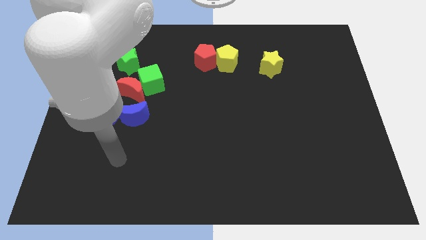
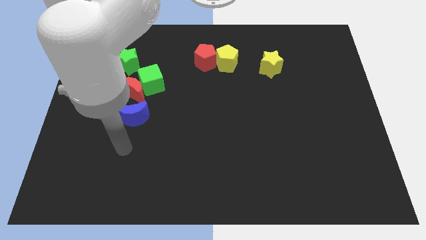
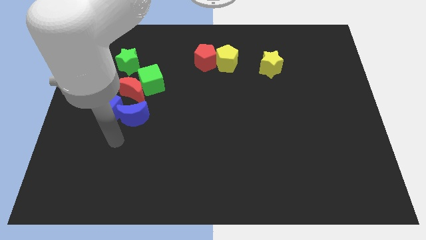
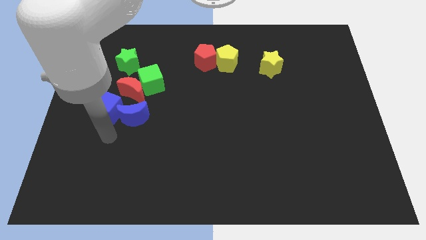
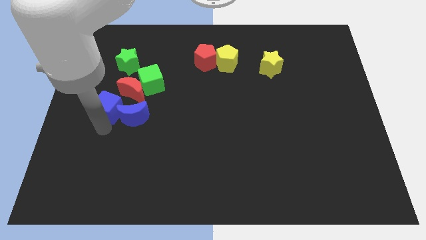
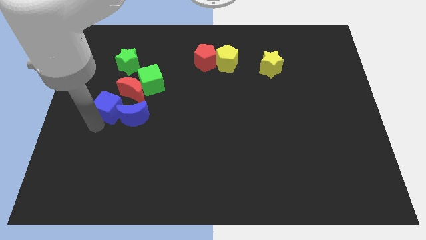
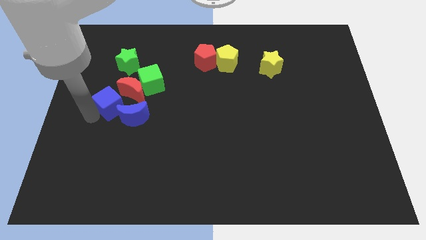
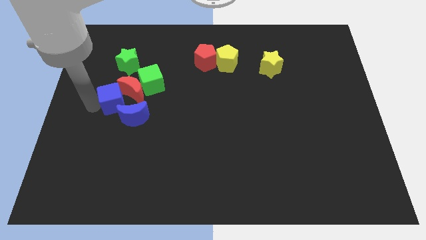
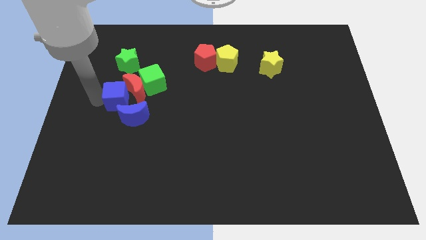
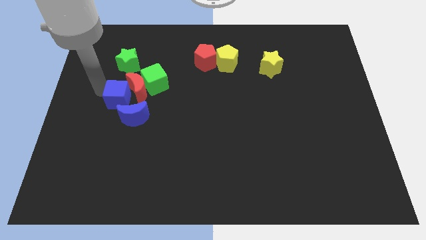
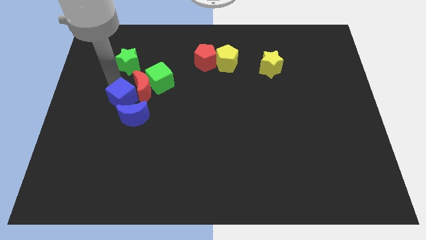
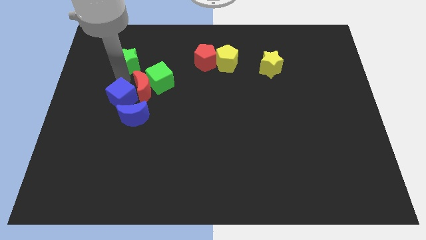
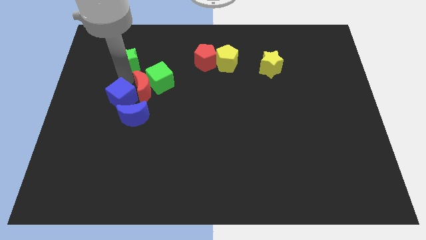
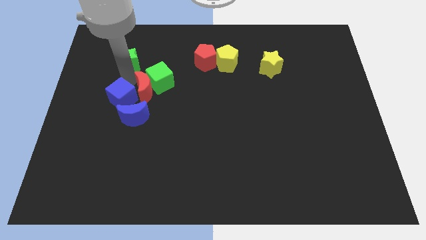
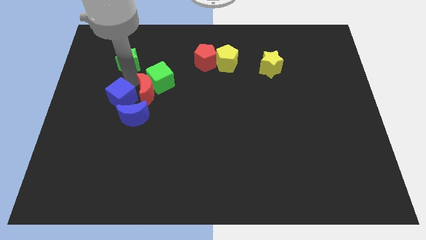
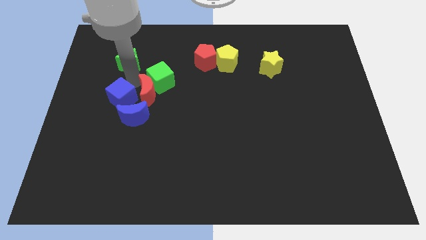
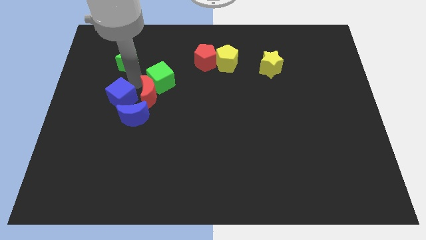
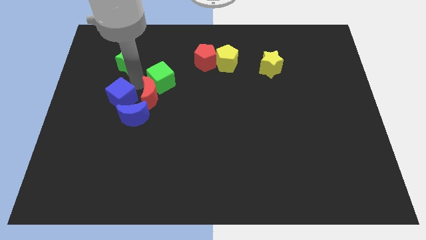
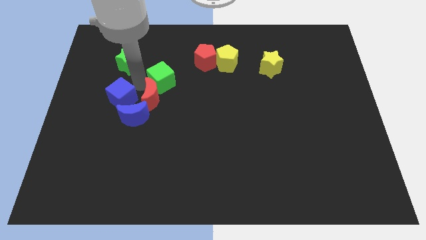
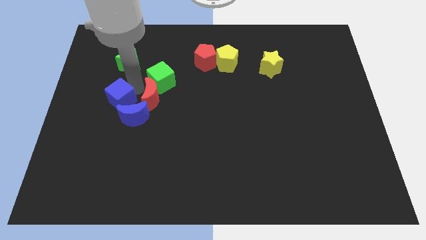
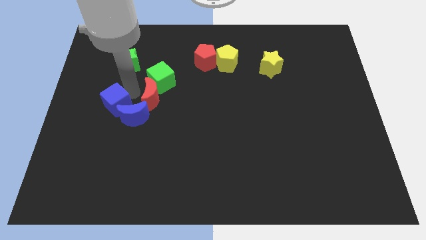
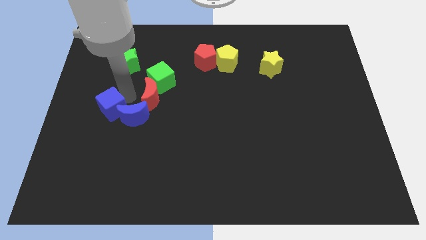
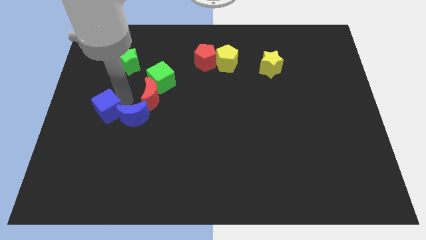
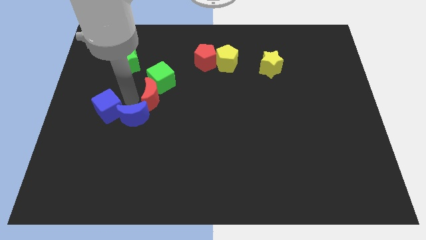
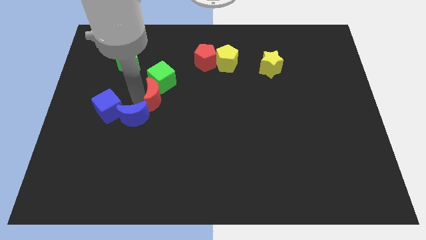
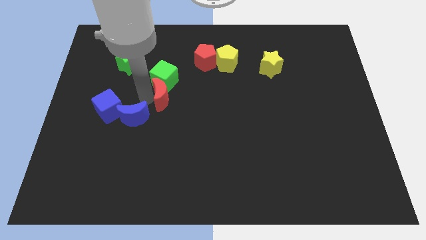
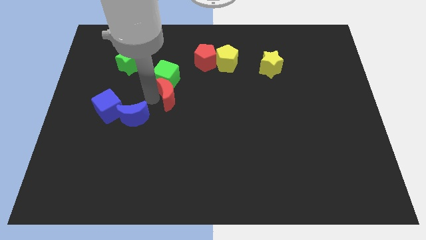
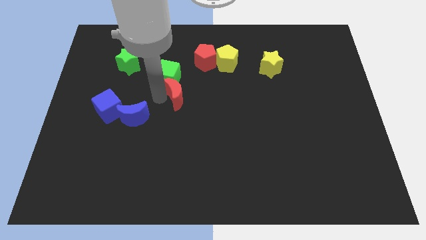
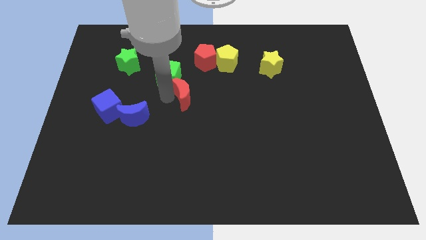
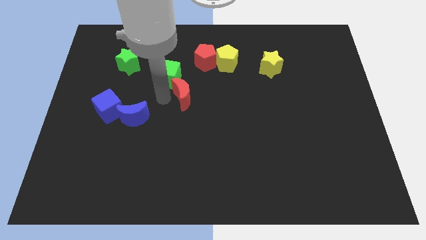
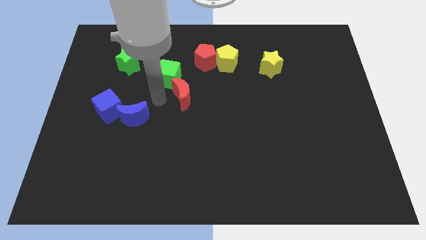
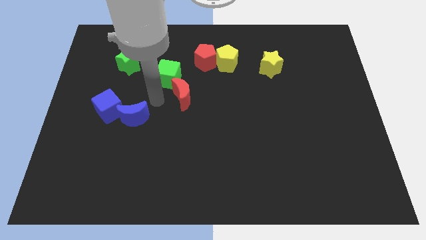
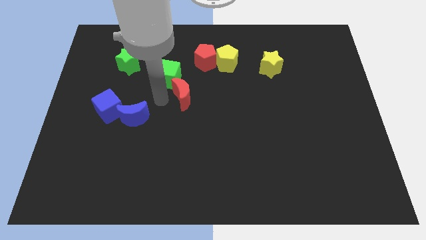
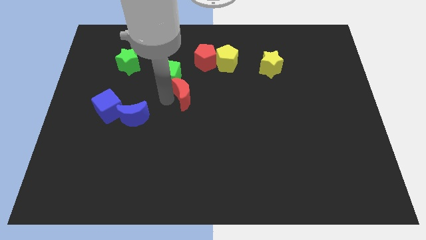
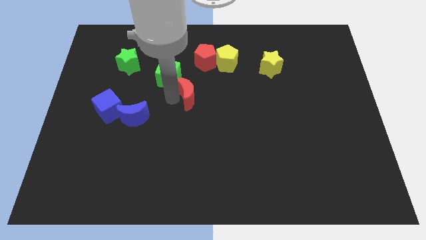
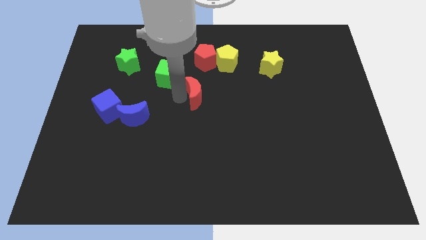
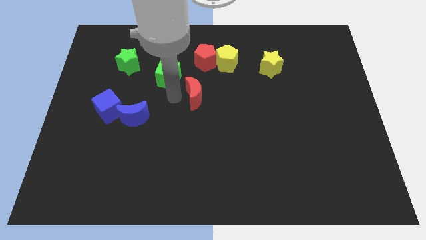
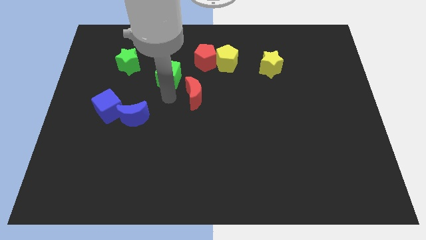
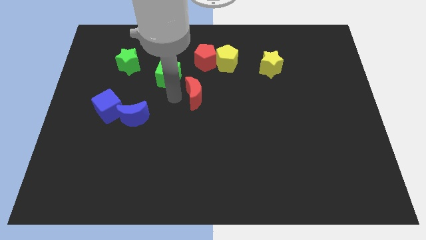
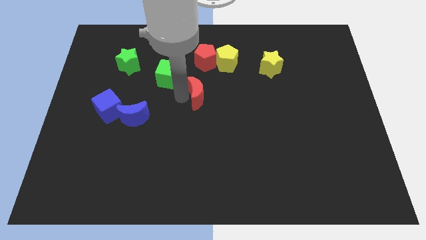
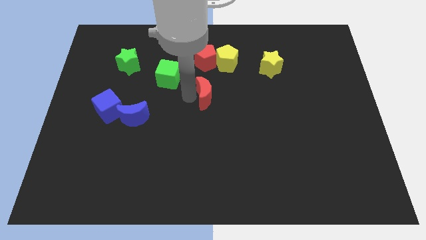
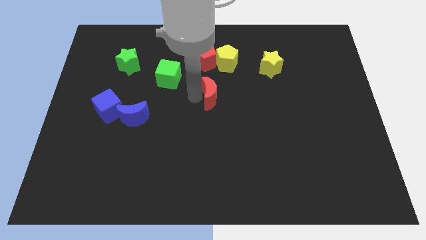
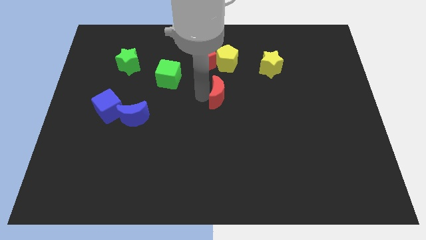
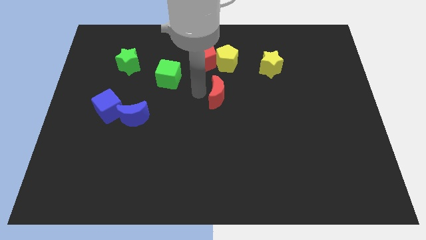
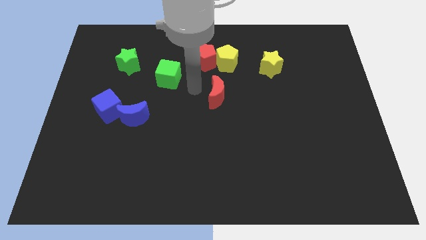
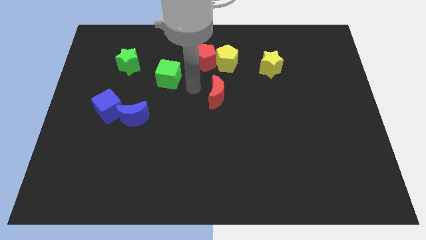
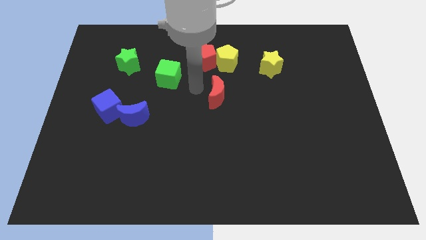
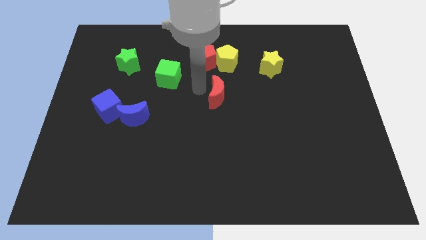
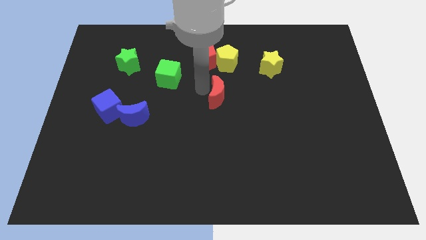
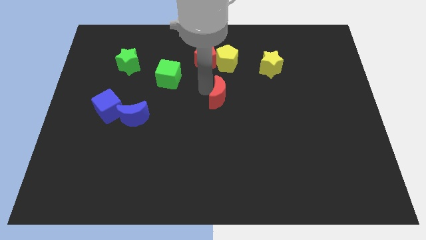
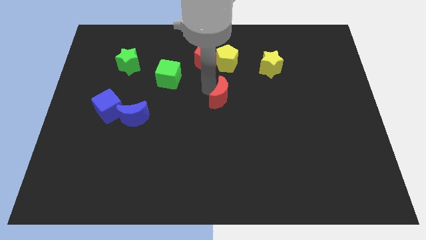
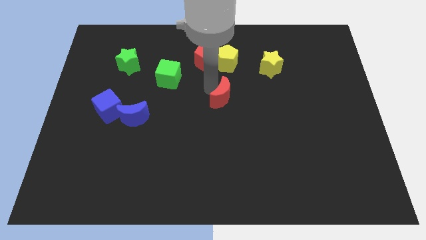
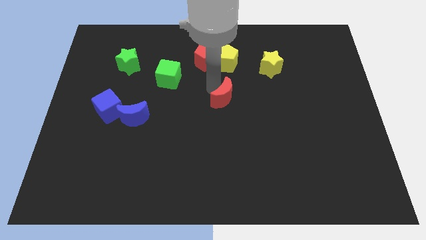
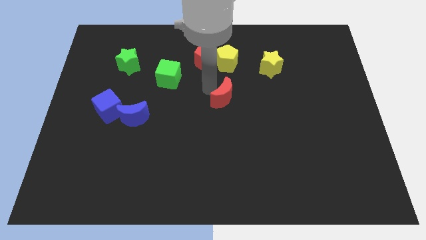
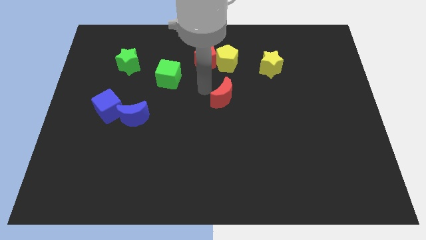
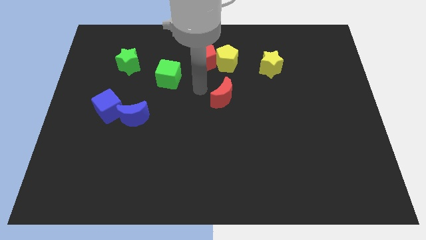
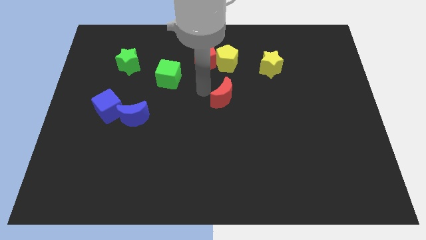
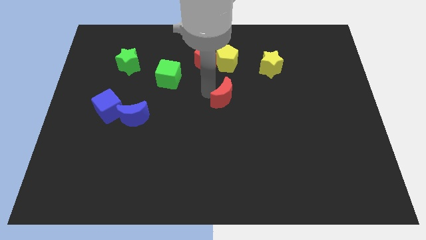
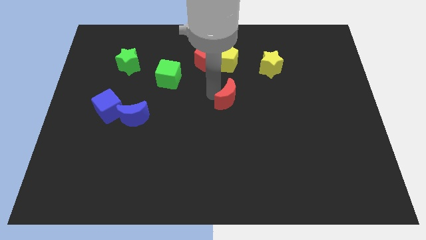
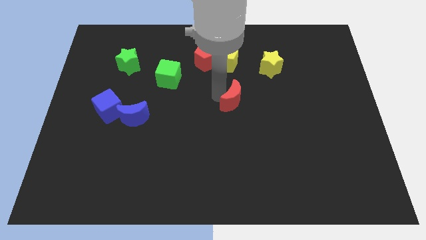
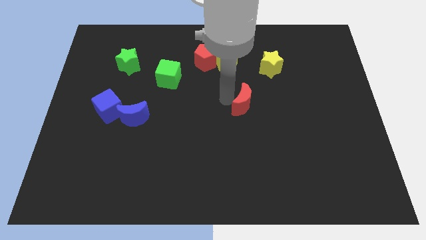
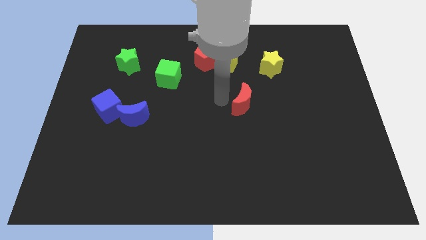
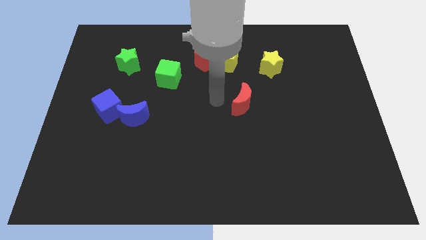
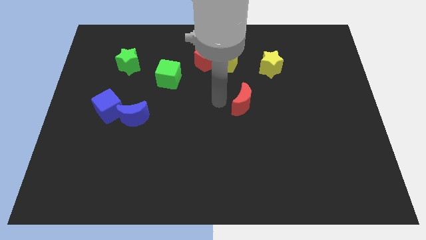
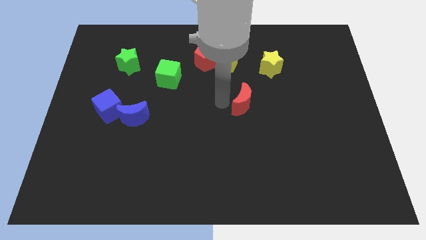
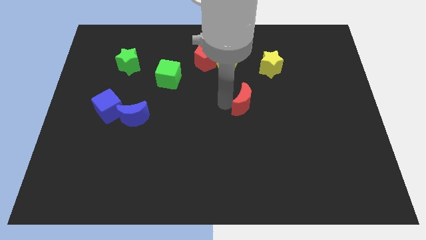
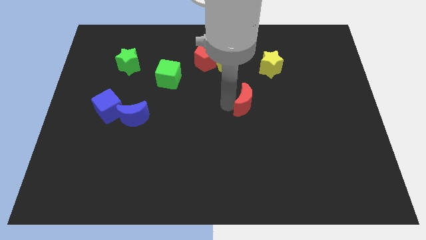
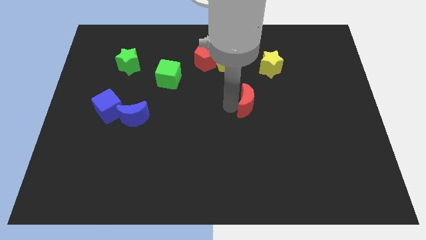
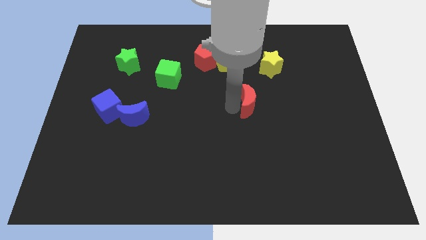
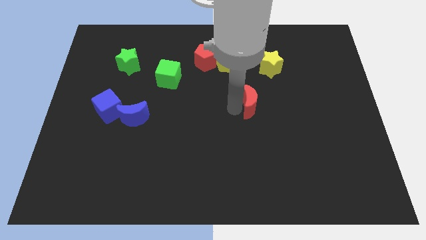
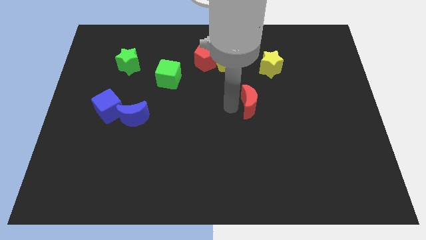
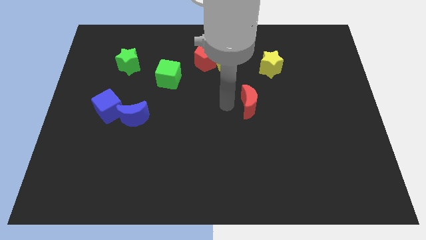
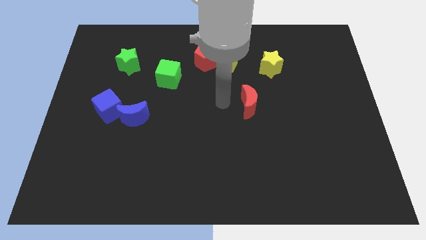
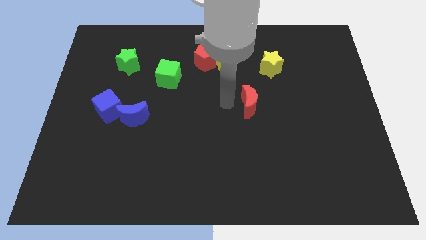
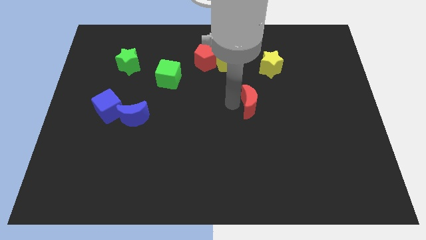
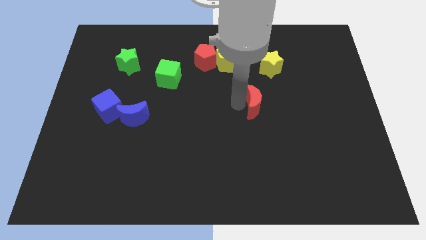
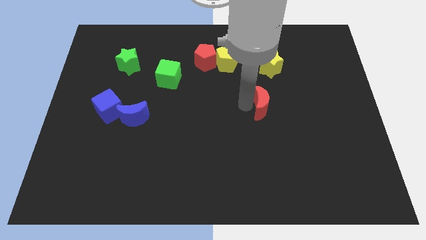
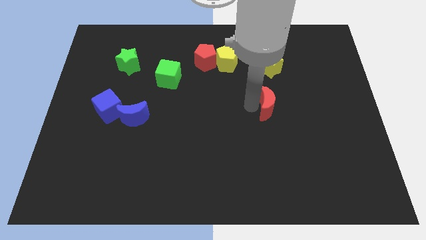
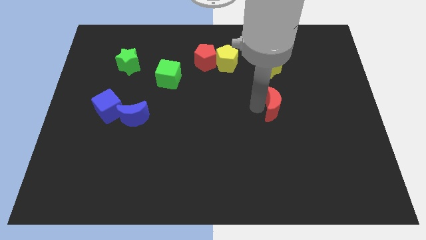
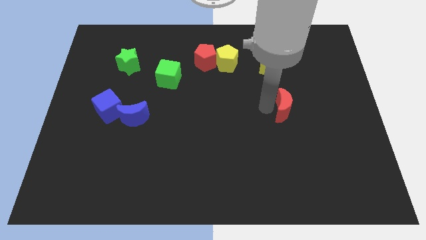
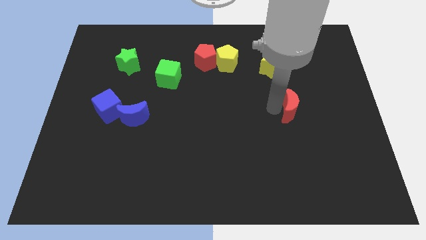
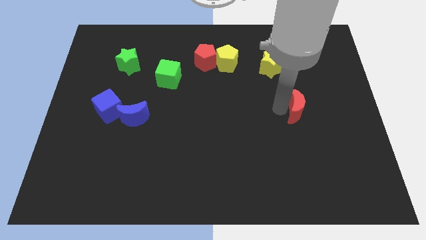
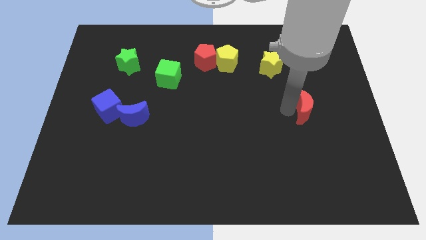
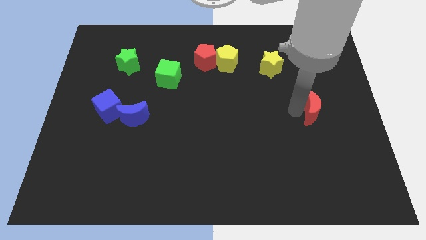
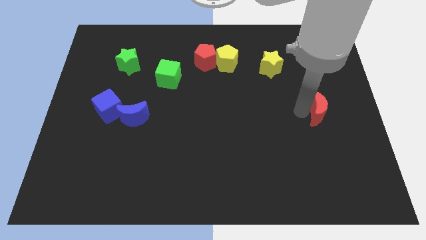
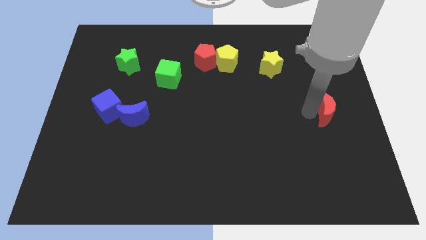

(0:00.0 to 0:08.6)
slide the red moon to the right side of the board
